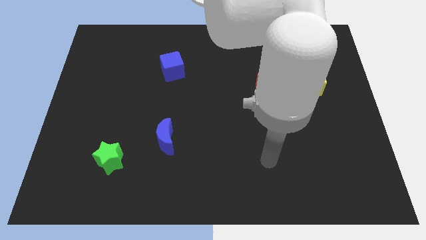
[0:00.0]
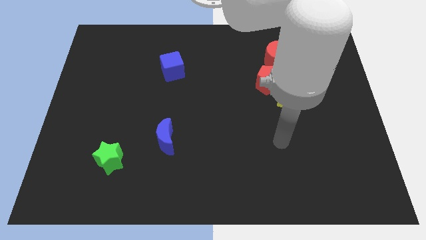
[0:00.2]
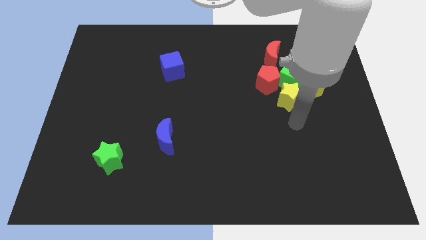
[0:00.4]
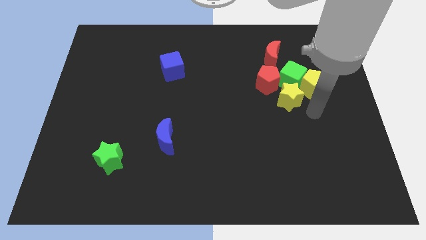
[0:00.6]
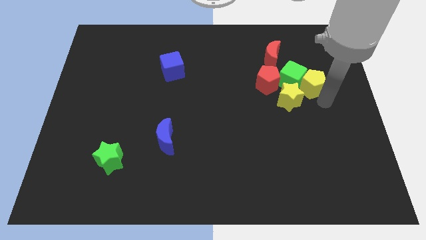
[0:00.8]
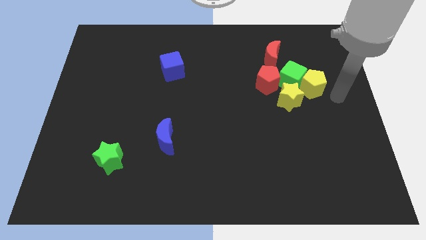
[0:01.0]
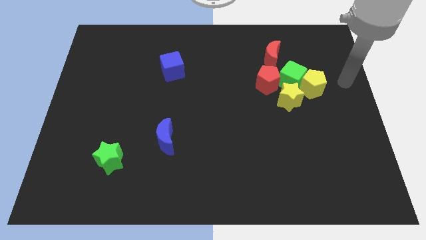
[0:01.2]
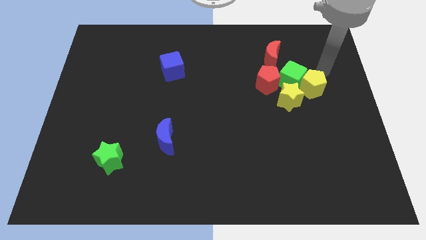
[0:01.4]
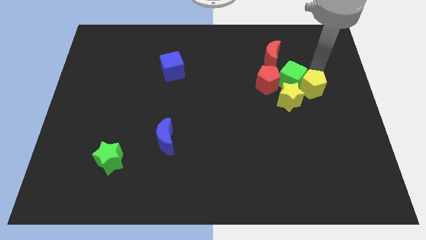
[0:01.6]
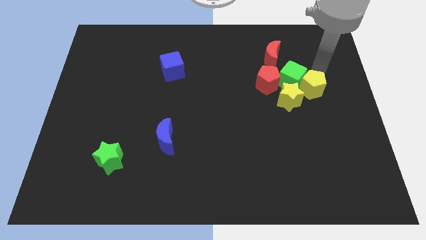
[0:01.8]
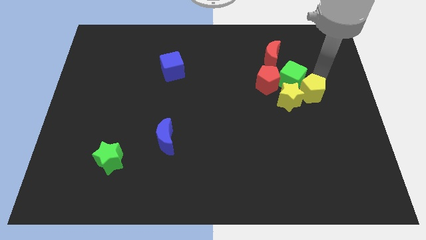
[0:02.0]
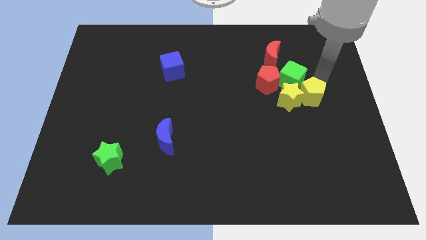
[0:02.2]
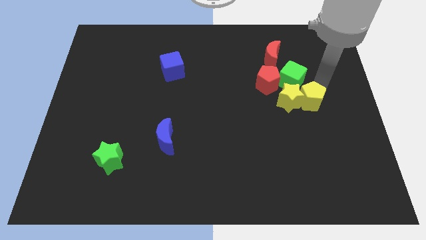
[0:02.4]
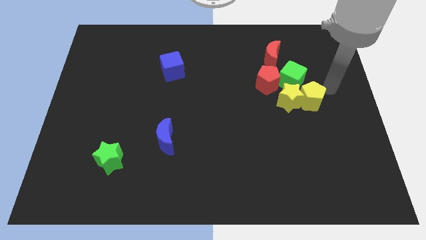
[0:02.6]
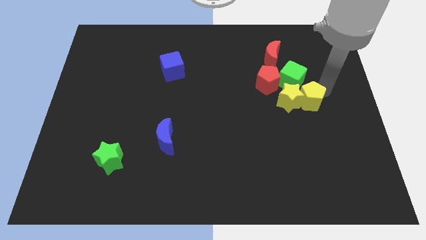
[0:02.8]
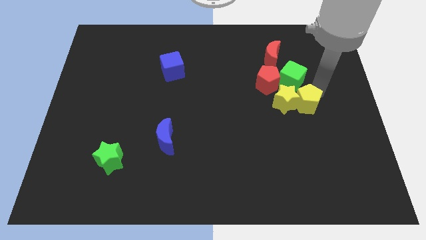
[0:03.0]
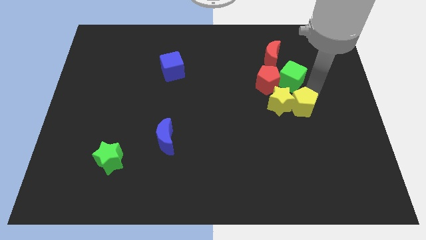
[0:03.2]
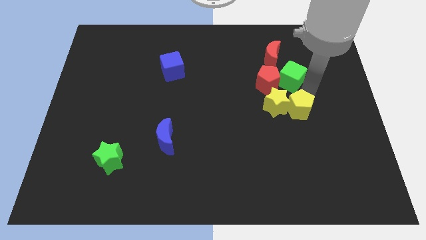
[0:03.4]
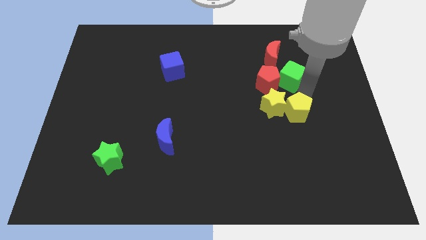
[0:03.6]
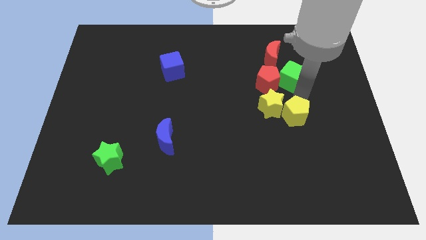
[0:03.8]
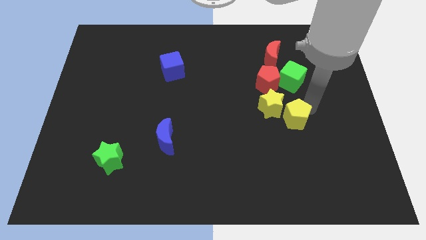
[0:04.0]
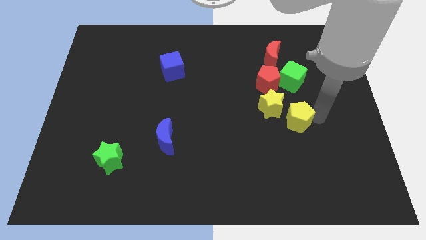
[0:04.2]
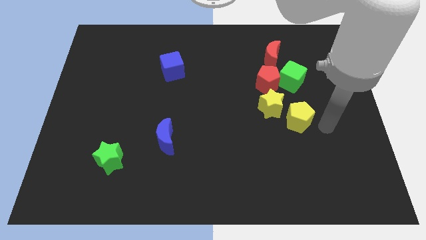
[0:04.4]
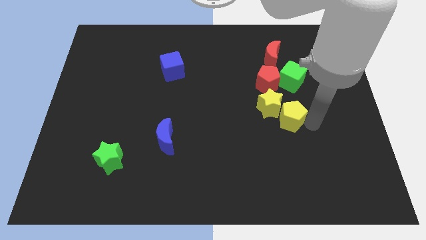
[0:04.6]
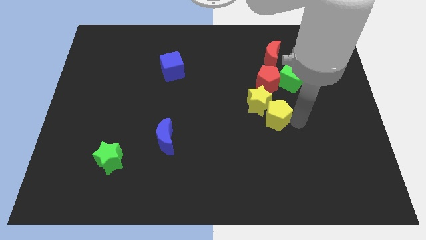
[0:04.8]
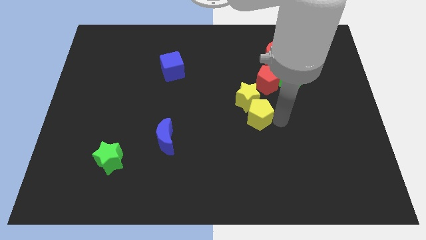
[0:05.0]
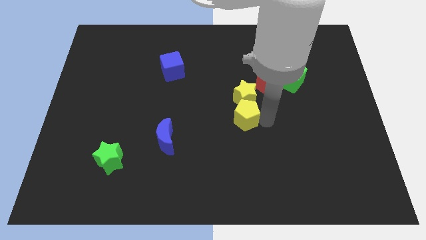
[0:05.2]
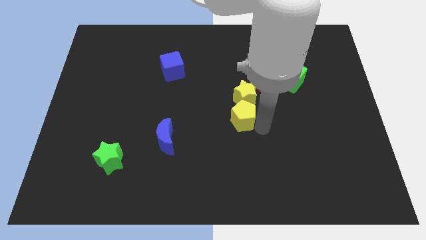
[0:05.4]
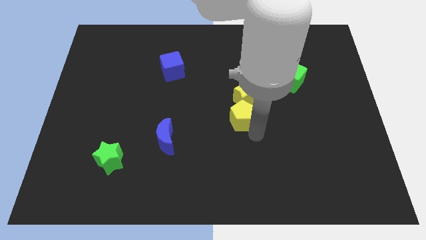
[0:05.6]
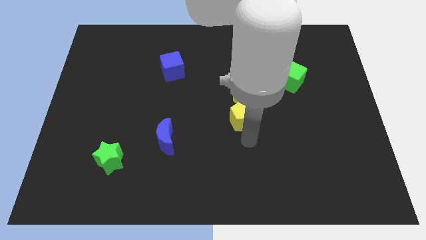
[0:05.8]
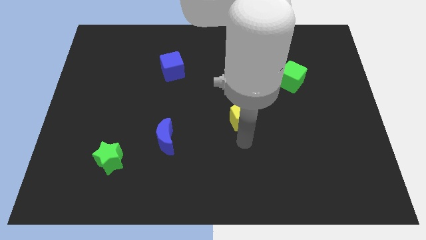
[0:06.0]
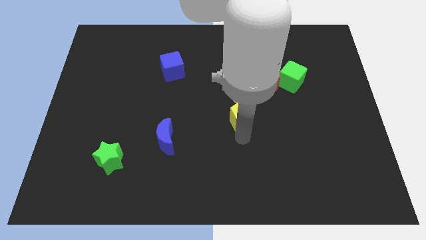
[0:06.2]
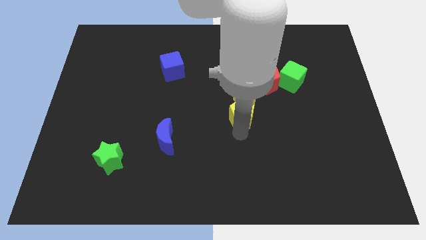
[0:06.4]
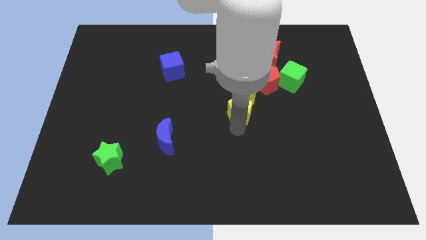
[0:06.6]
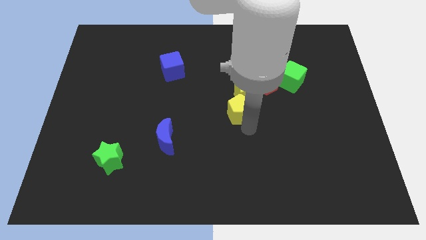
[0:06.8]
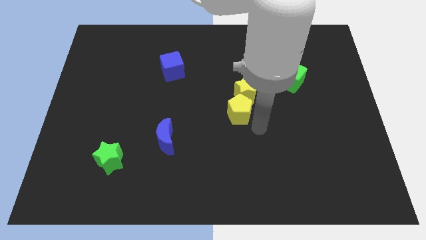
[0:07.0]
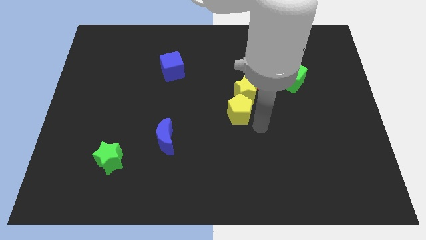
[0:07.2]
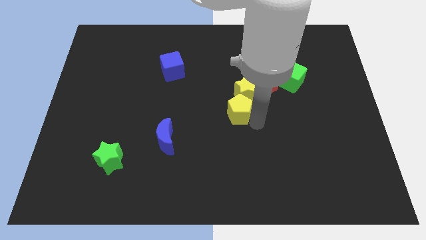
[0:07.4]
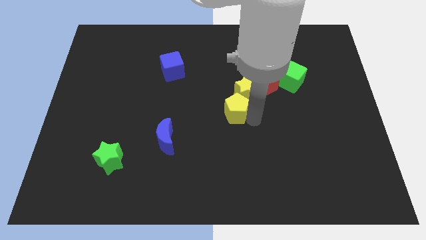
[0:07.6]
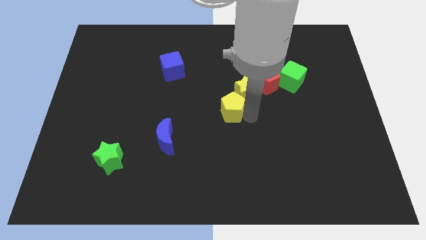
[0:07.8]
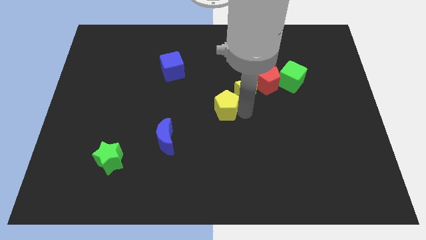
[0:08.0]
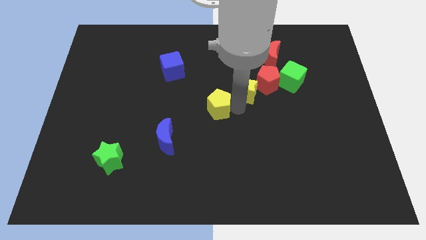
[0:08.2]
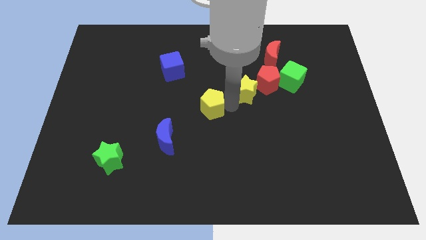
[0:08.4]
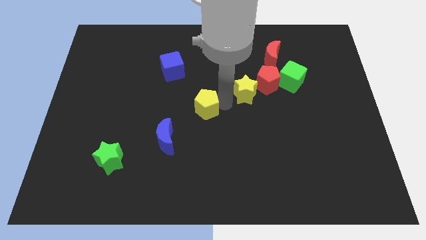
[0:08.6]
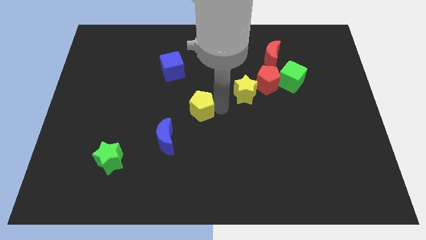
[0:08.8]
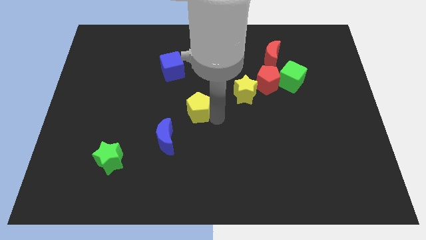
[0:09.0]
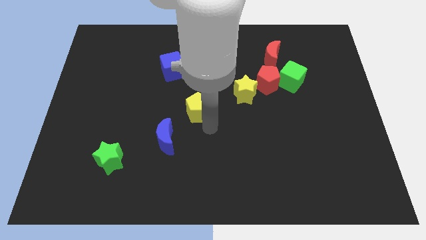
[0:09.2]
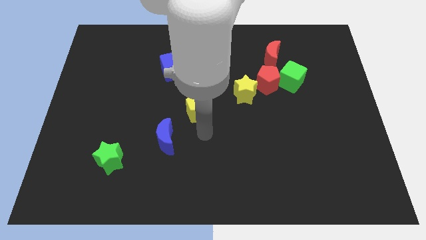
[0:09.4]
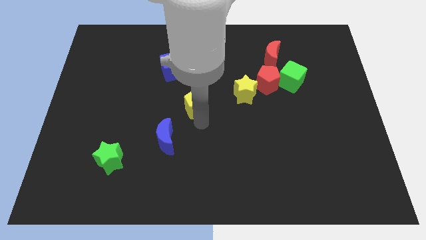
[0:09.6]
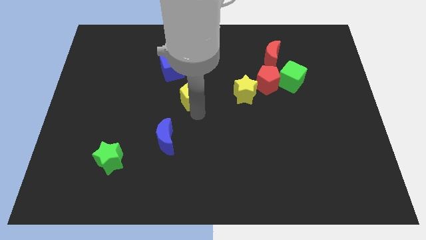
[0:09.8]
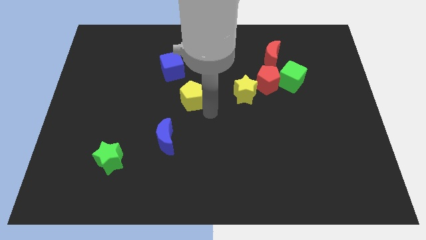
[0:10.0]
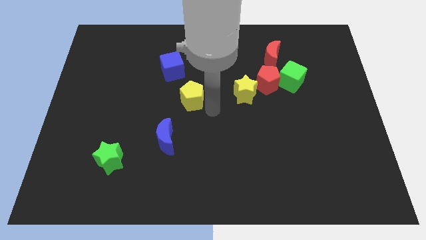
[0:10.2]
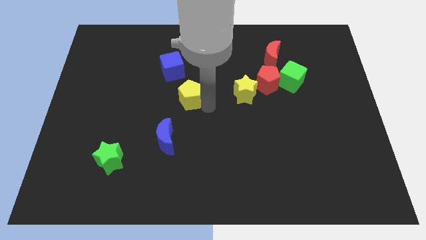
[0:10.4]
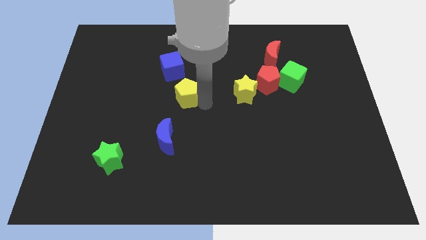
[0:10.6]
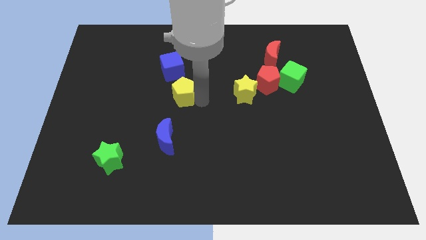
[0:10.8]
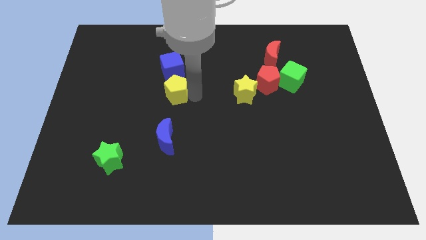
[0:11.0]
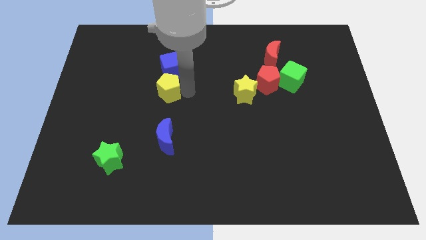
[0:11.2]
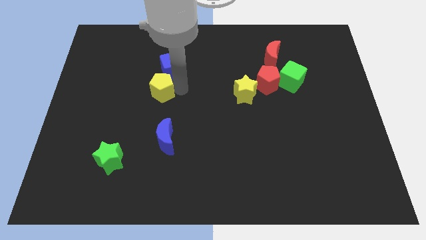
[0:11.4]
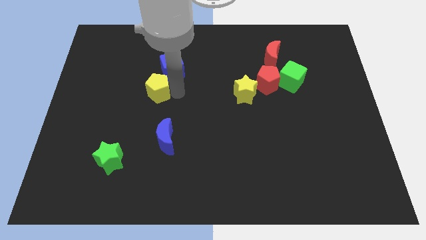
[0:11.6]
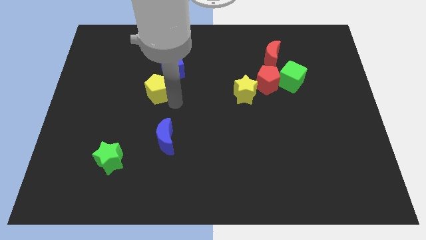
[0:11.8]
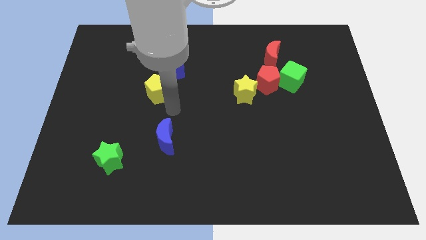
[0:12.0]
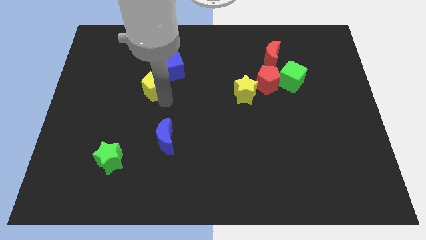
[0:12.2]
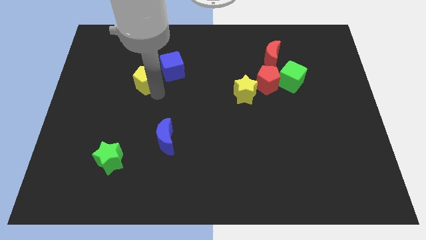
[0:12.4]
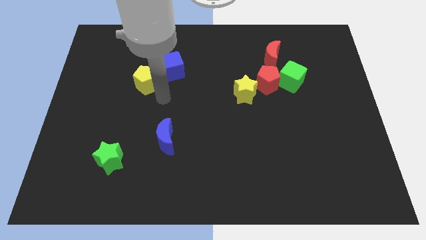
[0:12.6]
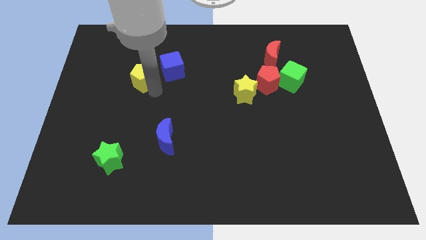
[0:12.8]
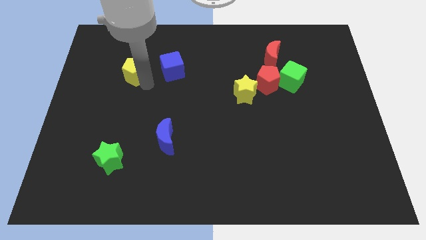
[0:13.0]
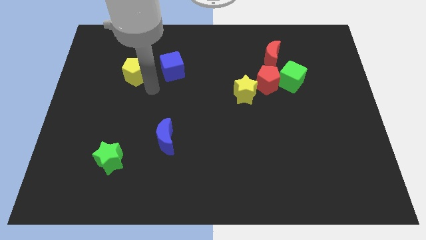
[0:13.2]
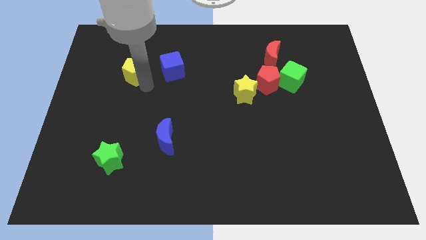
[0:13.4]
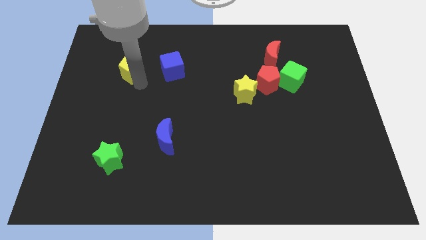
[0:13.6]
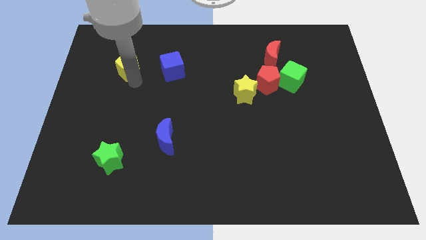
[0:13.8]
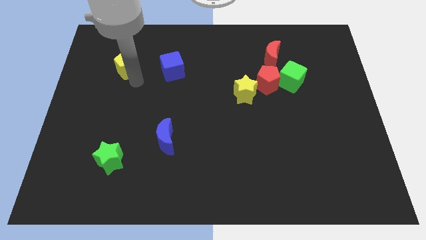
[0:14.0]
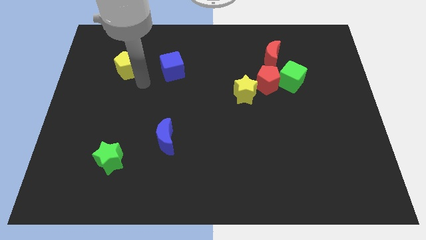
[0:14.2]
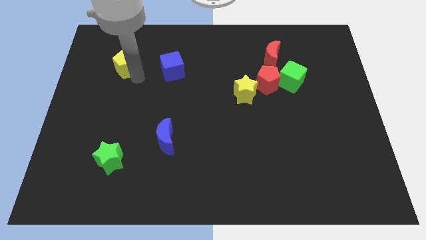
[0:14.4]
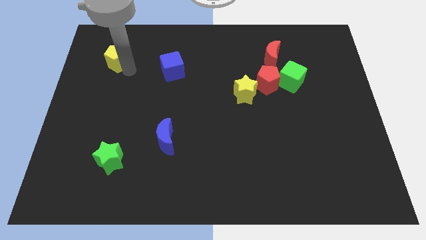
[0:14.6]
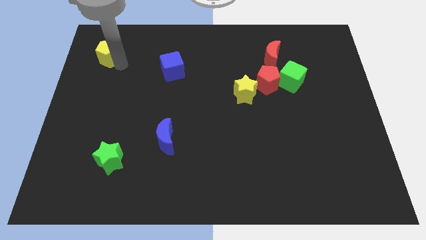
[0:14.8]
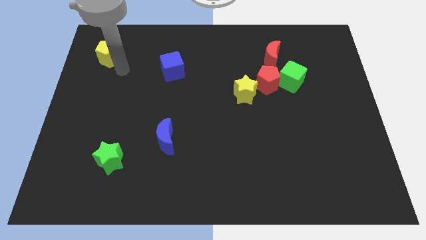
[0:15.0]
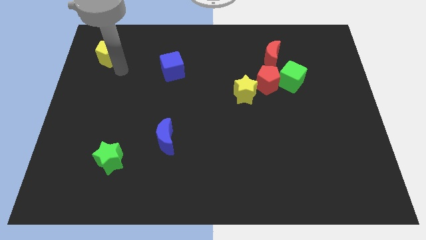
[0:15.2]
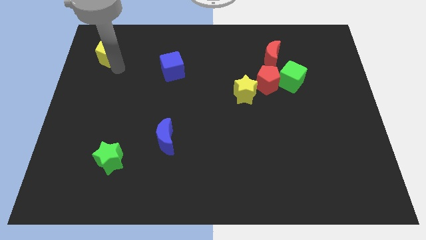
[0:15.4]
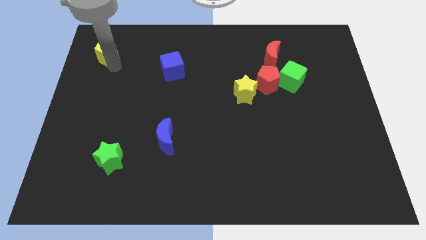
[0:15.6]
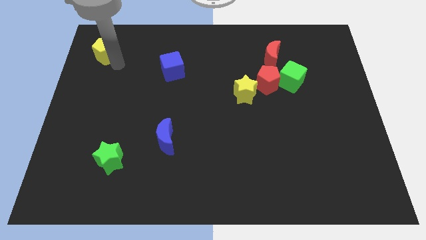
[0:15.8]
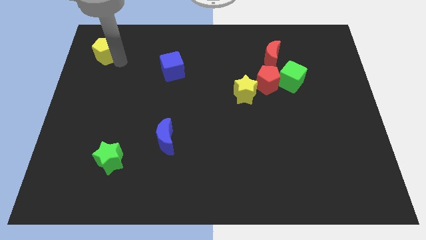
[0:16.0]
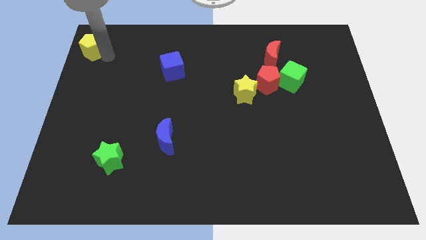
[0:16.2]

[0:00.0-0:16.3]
slide the yellow pentagon to the top left corner
